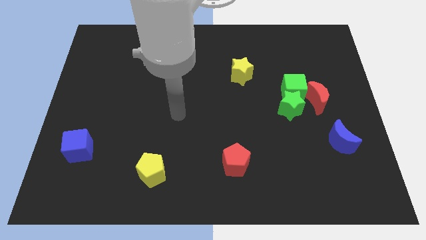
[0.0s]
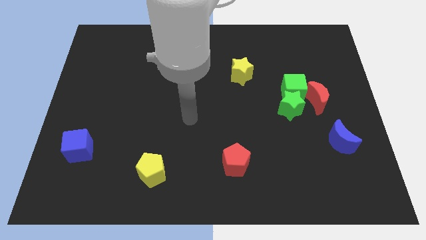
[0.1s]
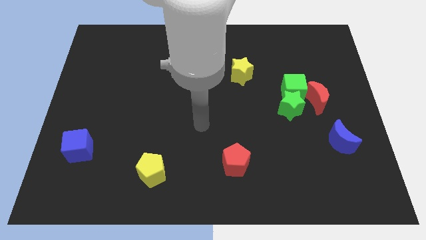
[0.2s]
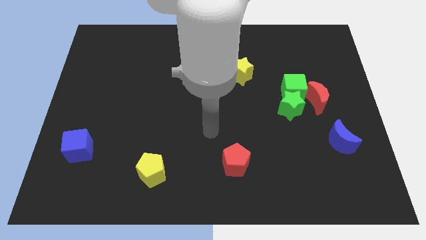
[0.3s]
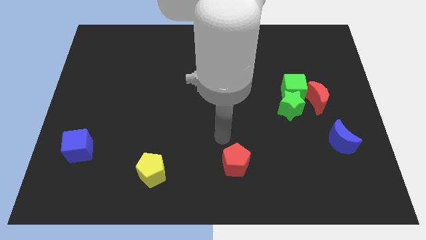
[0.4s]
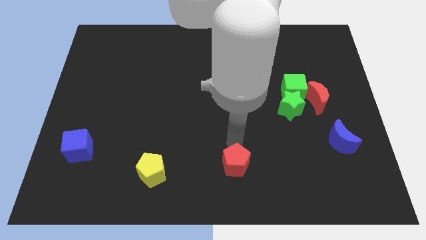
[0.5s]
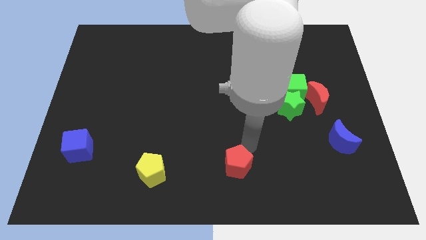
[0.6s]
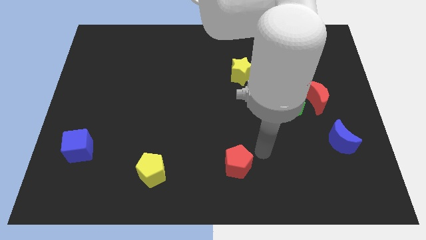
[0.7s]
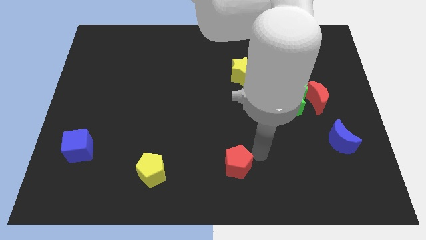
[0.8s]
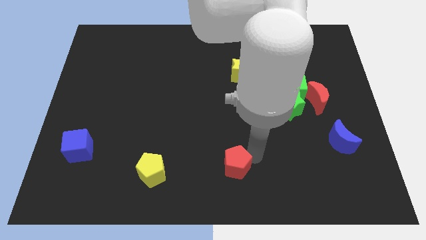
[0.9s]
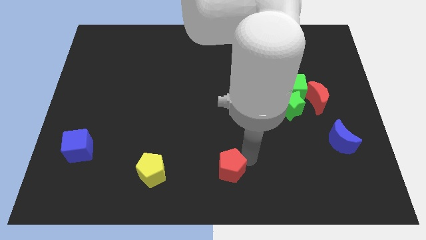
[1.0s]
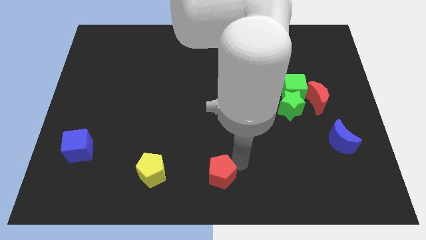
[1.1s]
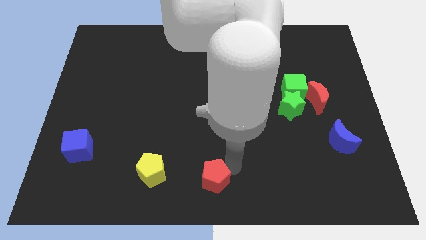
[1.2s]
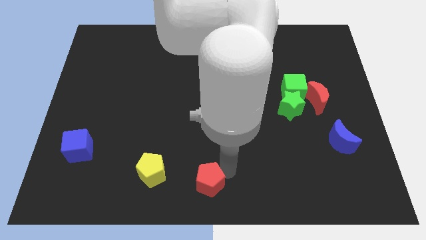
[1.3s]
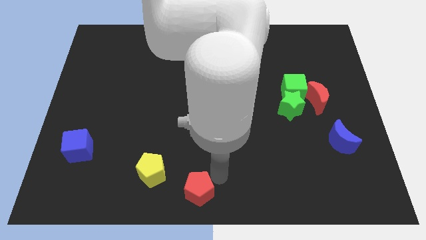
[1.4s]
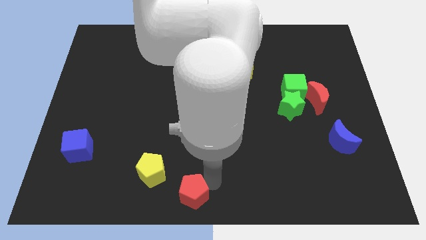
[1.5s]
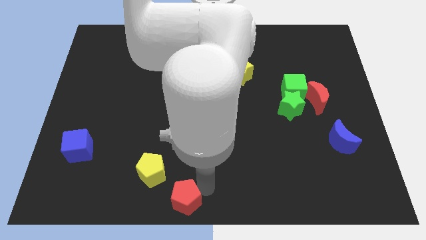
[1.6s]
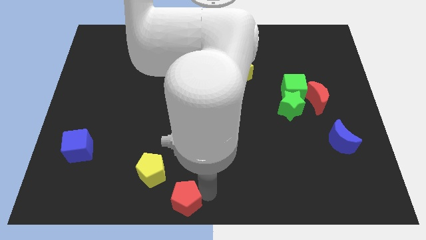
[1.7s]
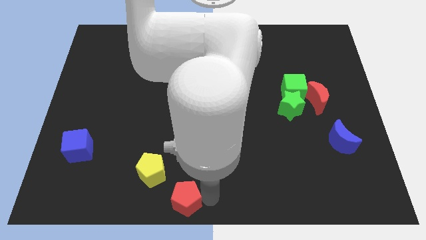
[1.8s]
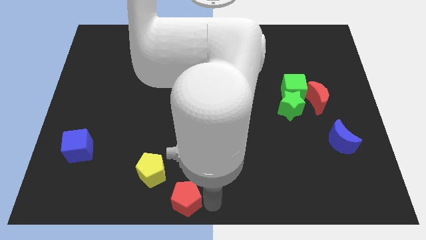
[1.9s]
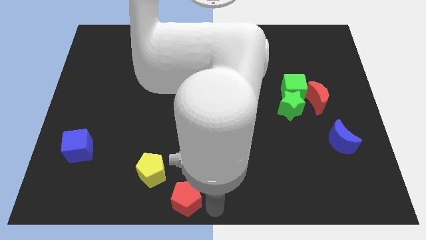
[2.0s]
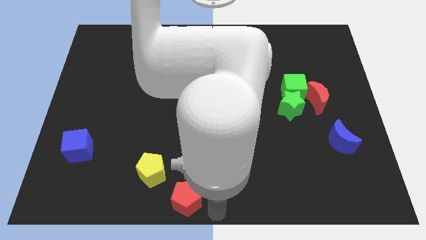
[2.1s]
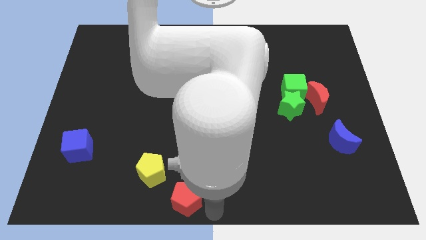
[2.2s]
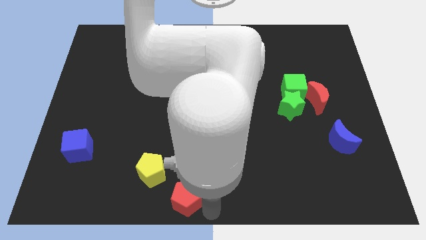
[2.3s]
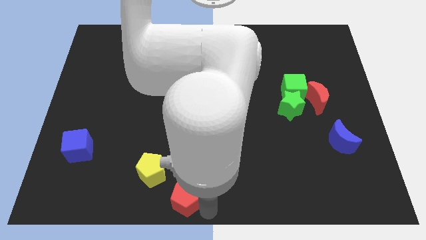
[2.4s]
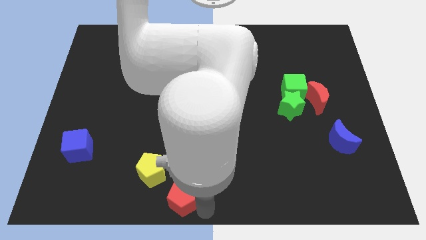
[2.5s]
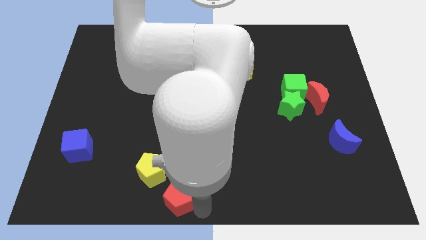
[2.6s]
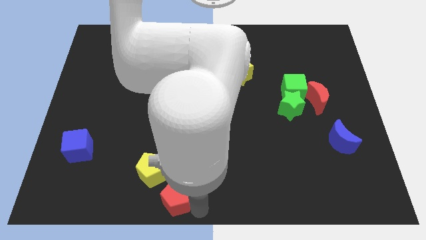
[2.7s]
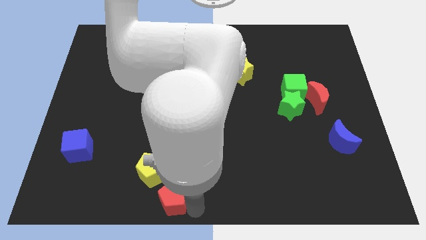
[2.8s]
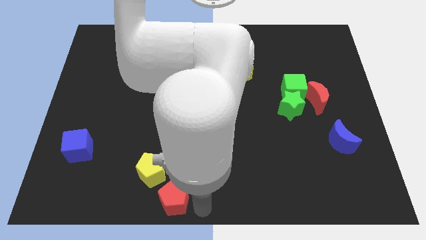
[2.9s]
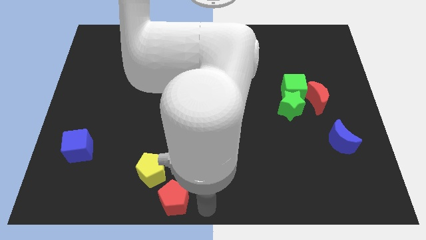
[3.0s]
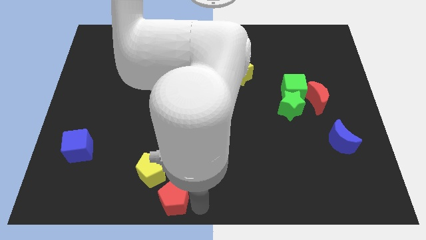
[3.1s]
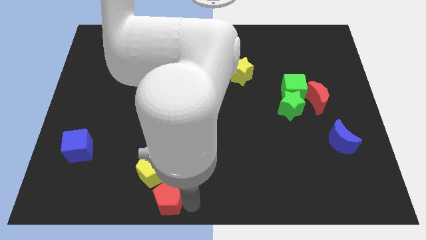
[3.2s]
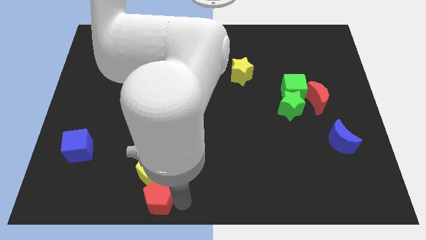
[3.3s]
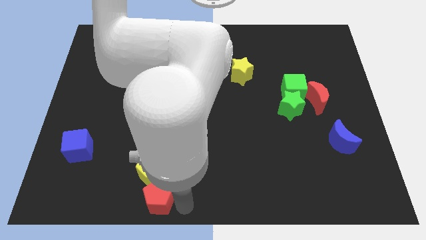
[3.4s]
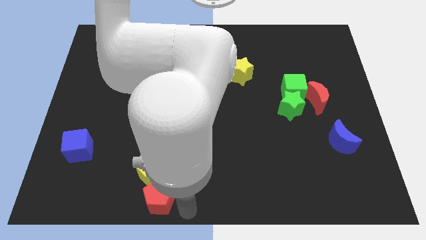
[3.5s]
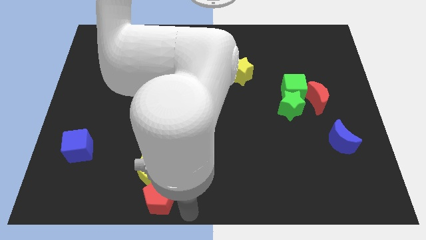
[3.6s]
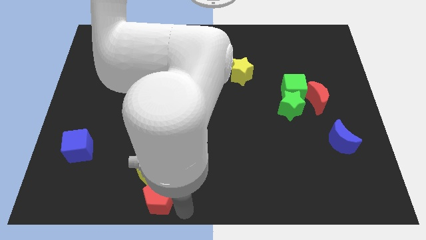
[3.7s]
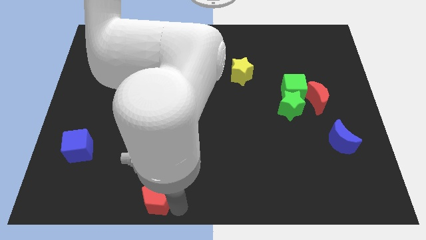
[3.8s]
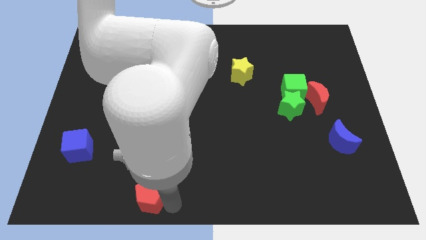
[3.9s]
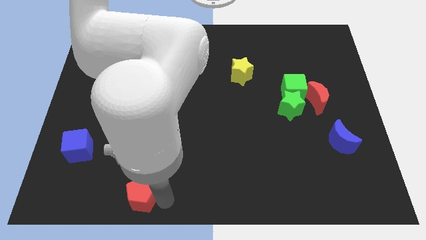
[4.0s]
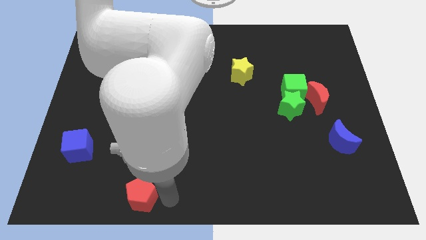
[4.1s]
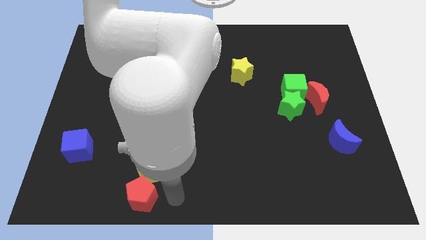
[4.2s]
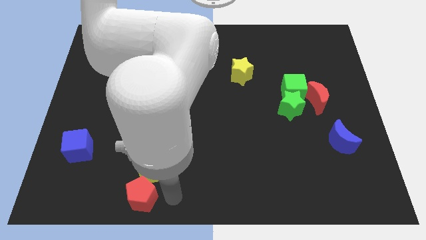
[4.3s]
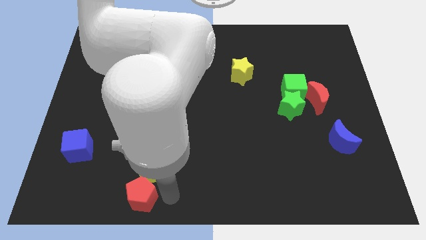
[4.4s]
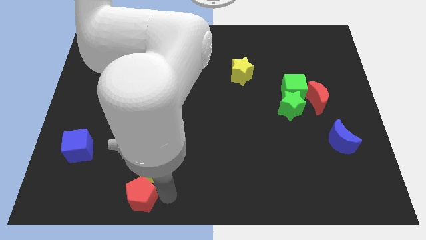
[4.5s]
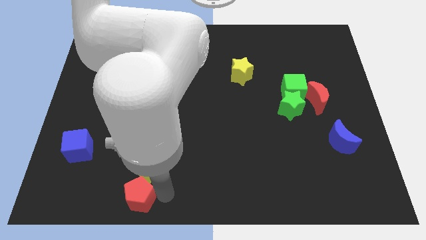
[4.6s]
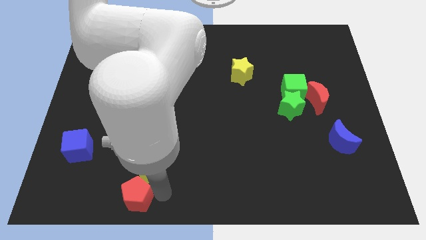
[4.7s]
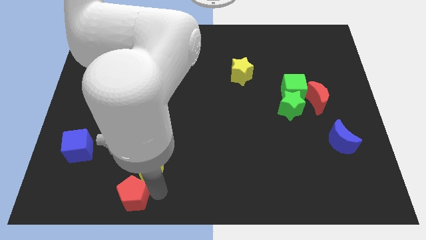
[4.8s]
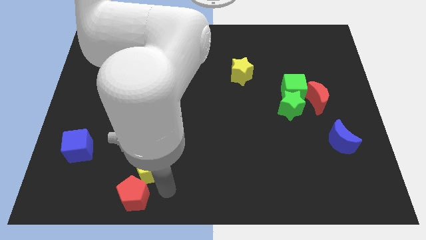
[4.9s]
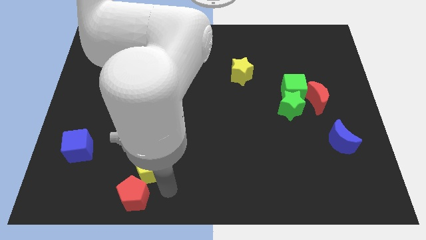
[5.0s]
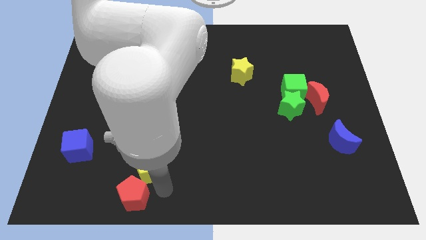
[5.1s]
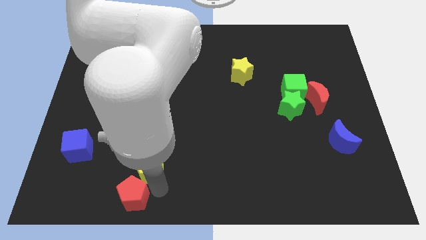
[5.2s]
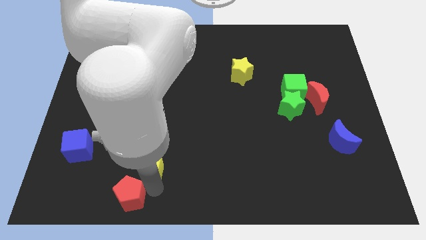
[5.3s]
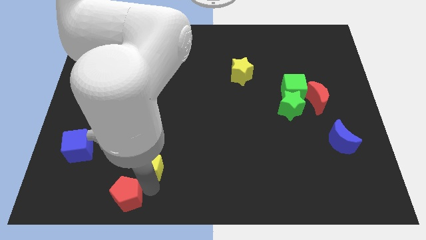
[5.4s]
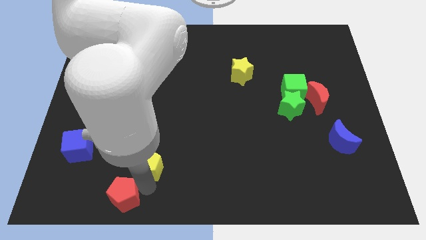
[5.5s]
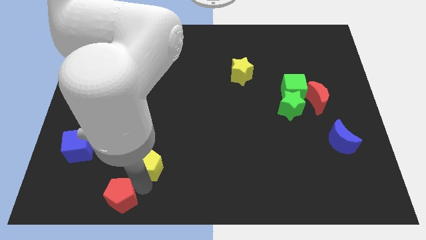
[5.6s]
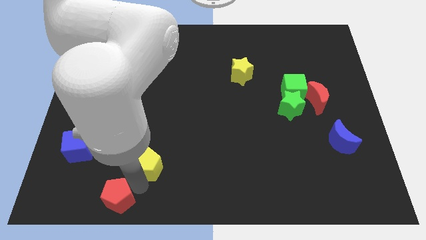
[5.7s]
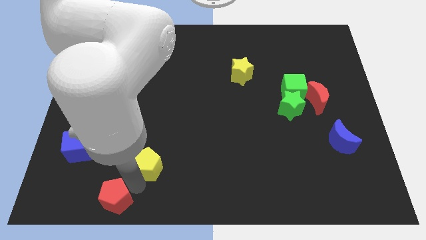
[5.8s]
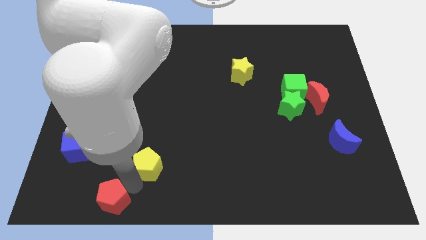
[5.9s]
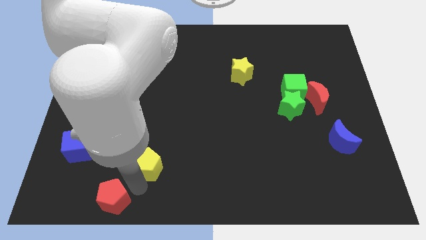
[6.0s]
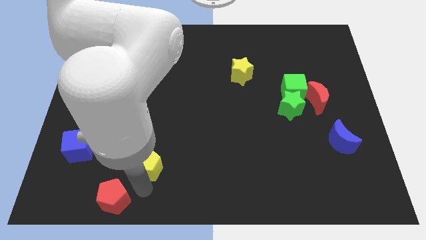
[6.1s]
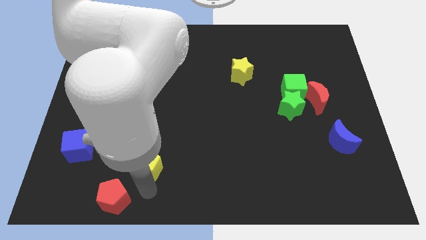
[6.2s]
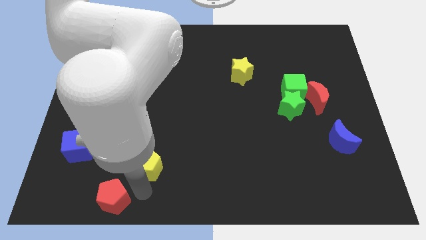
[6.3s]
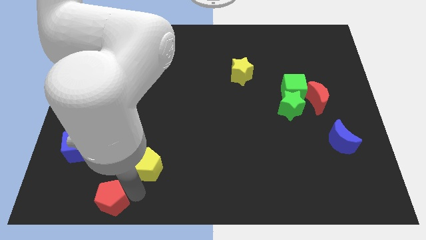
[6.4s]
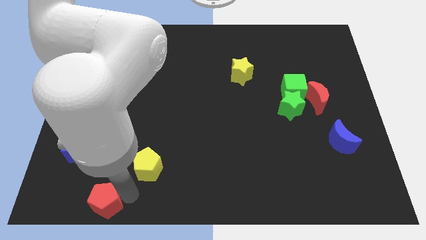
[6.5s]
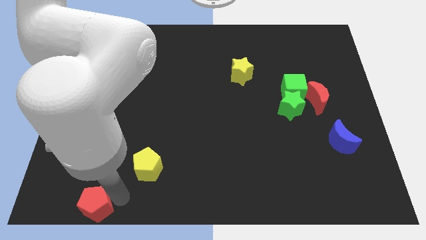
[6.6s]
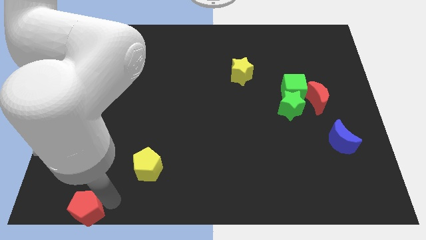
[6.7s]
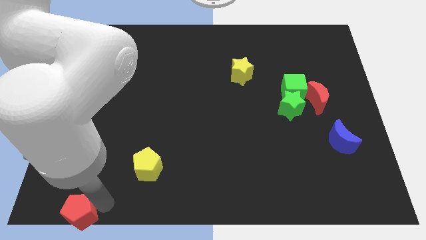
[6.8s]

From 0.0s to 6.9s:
push the red pentagon to the bottom left of the board
